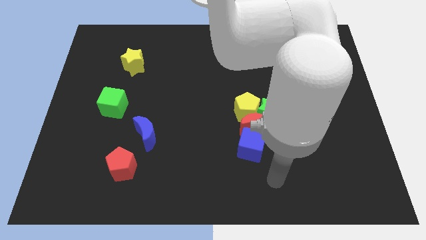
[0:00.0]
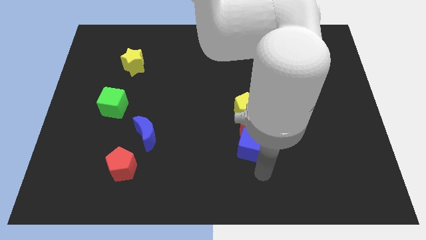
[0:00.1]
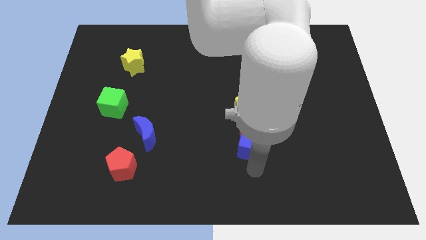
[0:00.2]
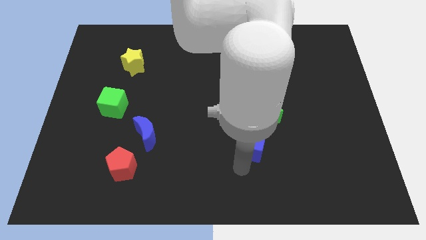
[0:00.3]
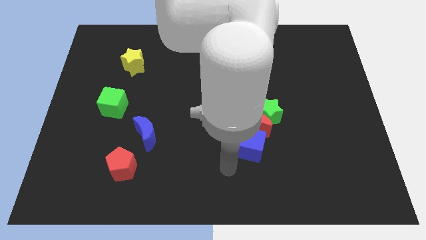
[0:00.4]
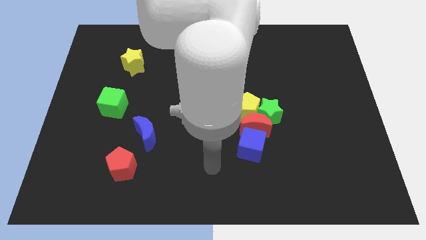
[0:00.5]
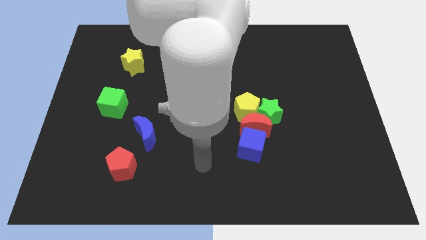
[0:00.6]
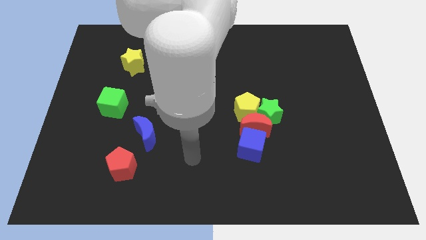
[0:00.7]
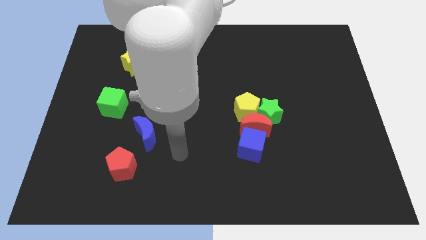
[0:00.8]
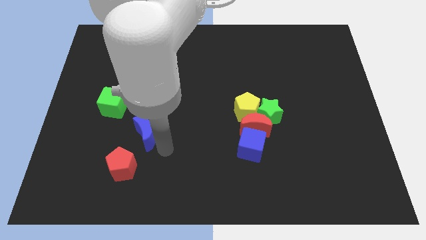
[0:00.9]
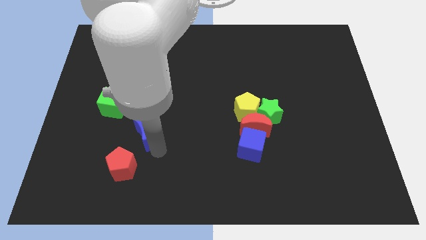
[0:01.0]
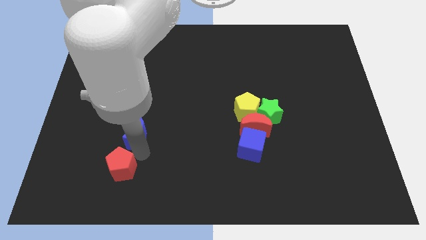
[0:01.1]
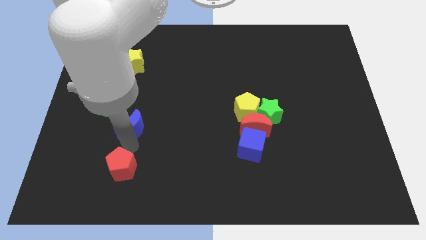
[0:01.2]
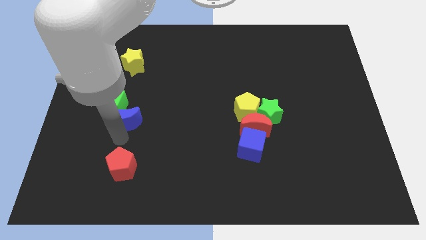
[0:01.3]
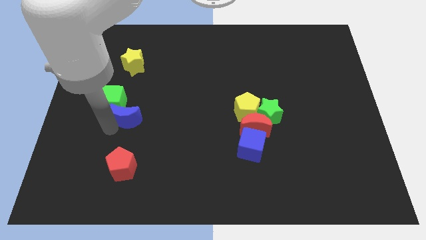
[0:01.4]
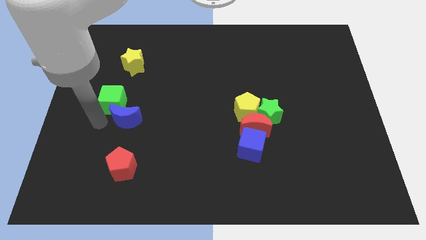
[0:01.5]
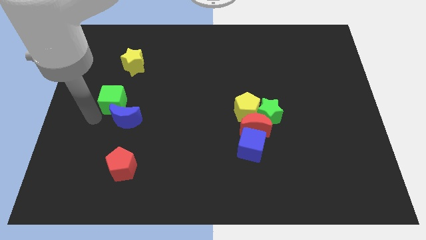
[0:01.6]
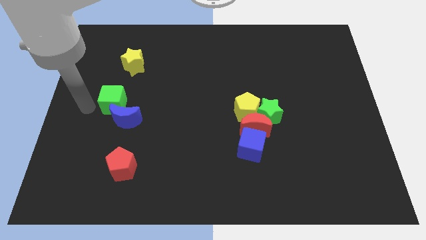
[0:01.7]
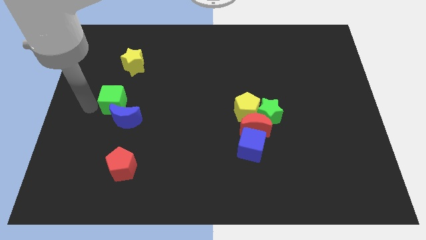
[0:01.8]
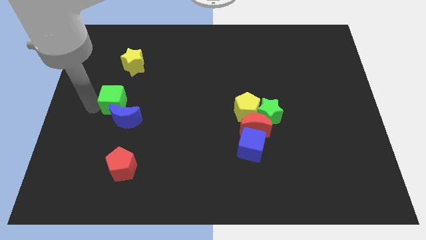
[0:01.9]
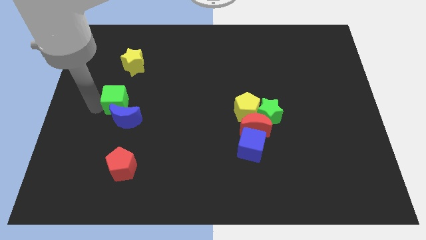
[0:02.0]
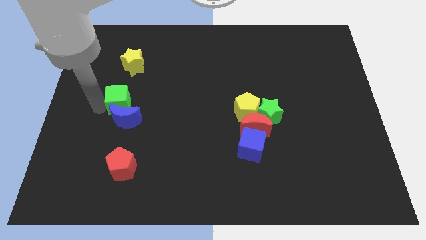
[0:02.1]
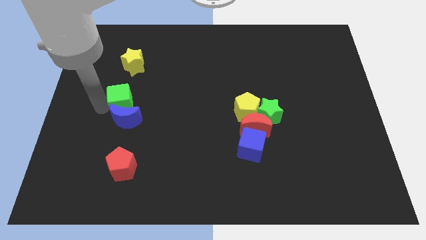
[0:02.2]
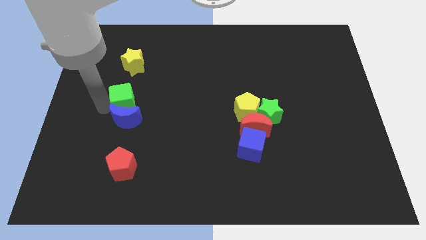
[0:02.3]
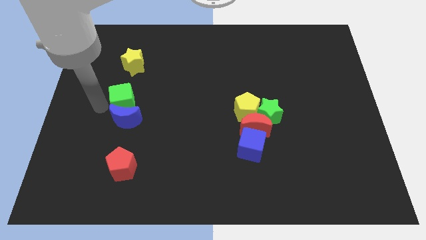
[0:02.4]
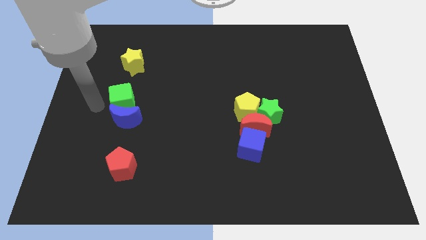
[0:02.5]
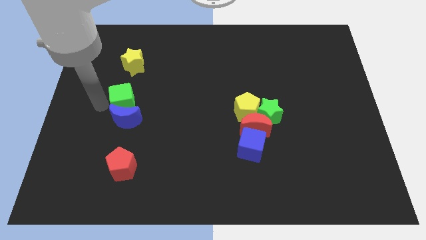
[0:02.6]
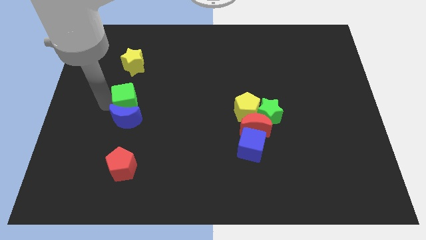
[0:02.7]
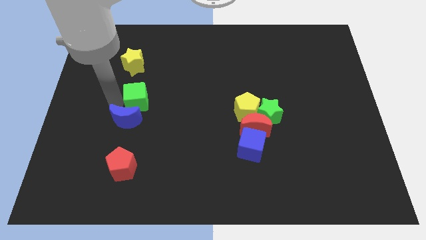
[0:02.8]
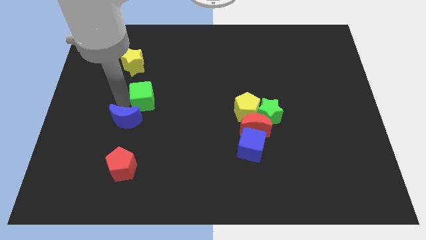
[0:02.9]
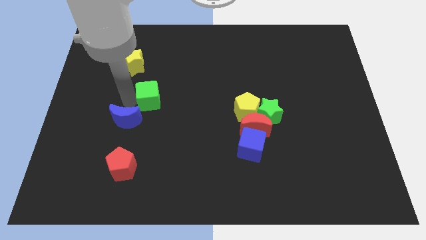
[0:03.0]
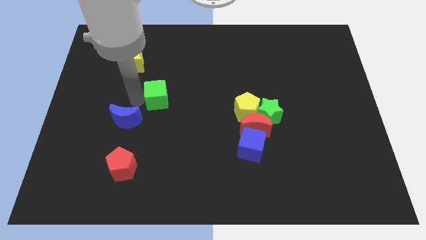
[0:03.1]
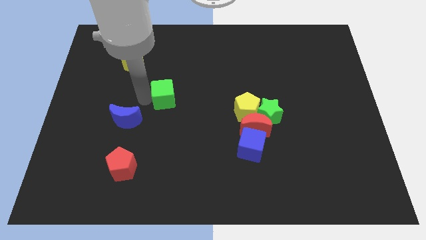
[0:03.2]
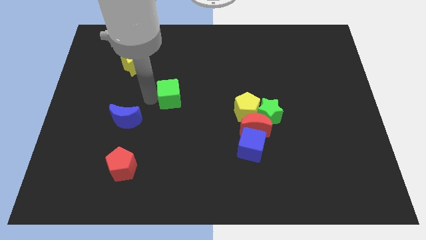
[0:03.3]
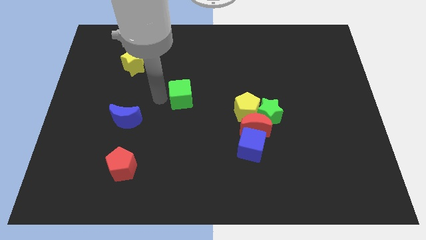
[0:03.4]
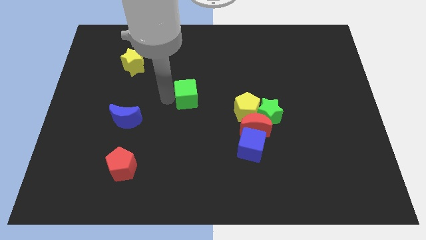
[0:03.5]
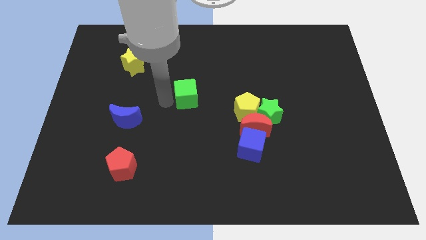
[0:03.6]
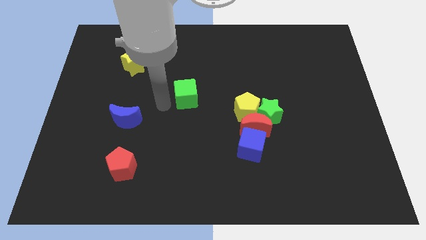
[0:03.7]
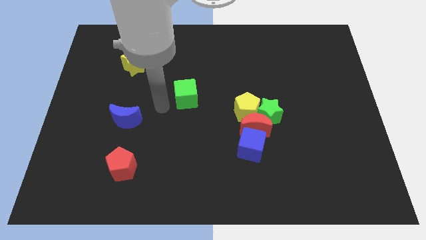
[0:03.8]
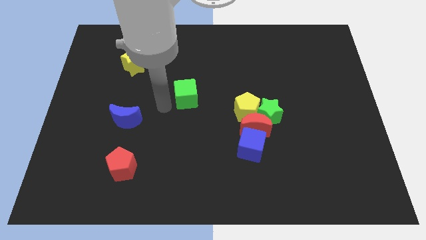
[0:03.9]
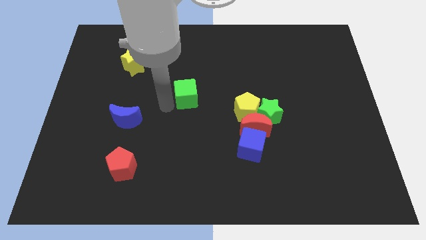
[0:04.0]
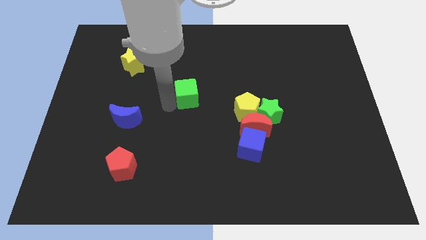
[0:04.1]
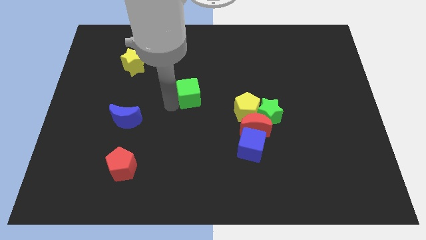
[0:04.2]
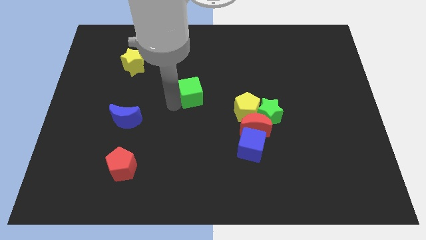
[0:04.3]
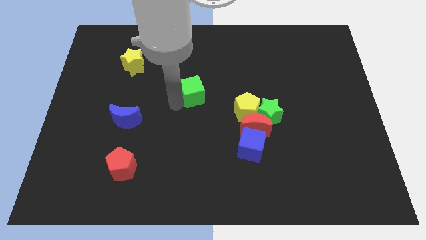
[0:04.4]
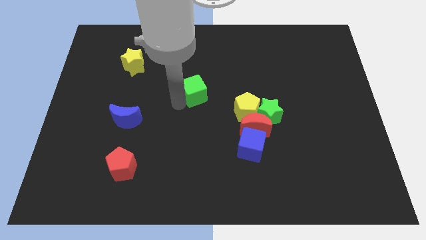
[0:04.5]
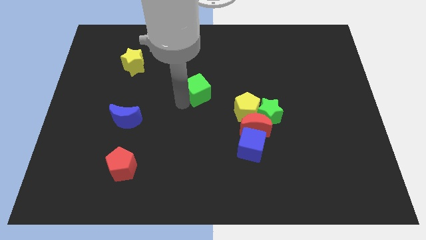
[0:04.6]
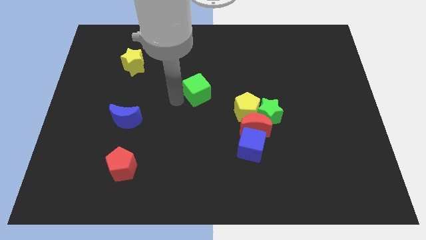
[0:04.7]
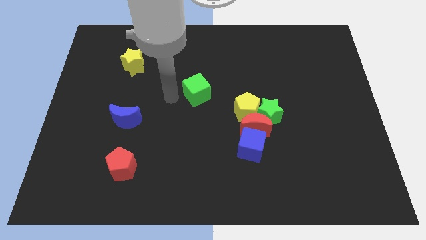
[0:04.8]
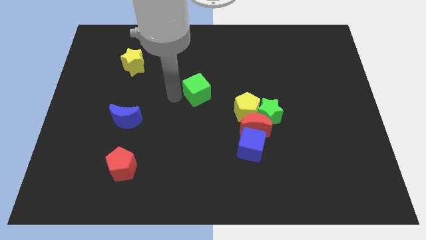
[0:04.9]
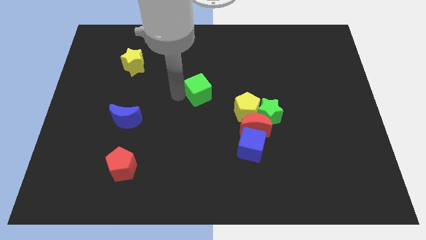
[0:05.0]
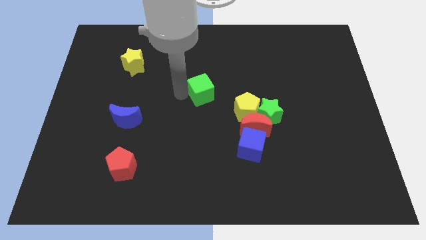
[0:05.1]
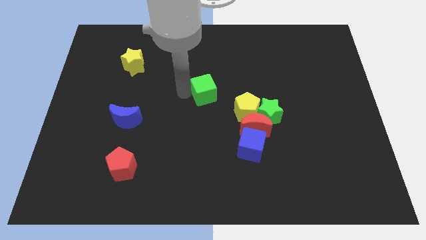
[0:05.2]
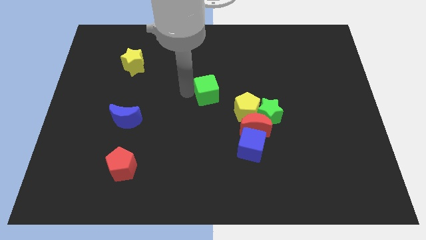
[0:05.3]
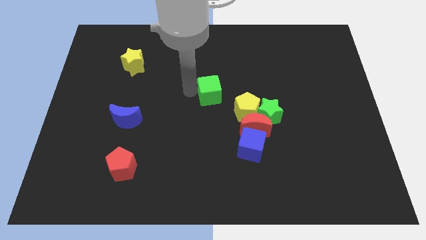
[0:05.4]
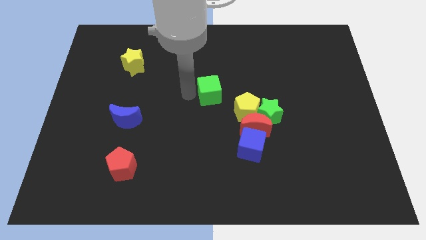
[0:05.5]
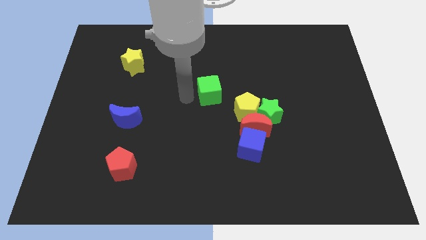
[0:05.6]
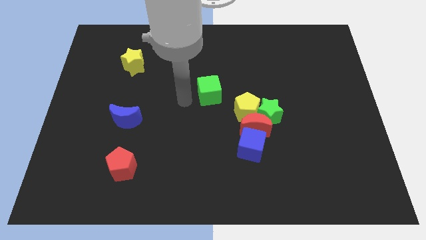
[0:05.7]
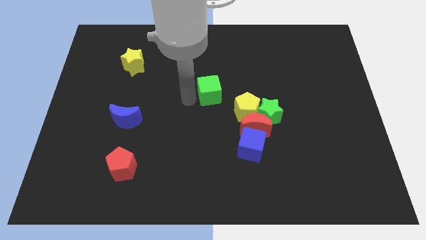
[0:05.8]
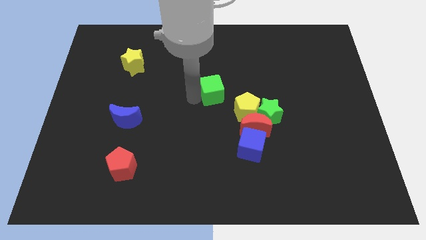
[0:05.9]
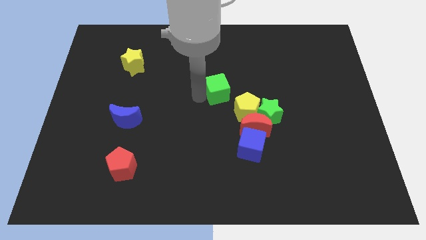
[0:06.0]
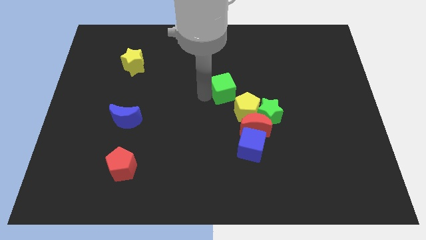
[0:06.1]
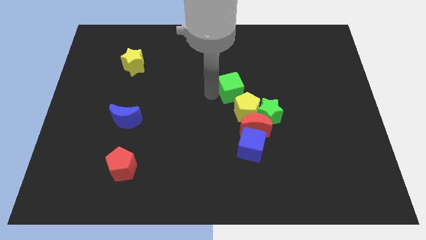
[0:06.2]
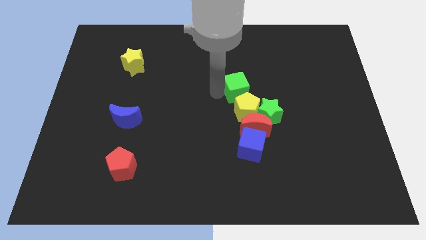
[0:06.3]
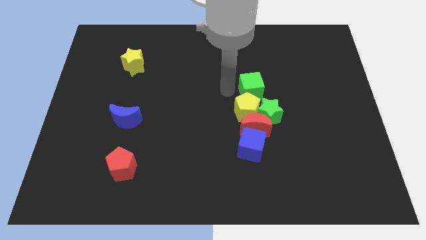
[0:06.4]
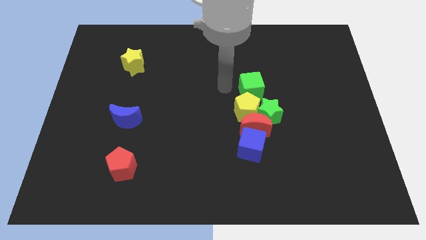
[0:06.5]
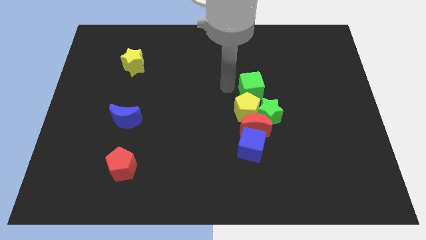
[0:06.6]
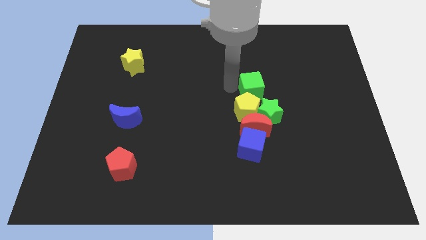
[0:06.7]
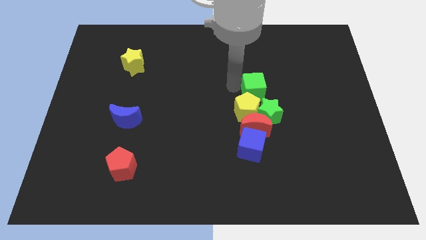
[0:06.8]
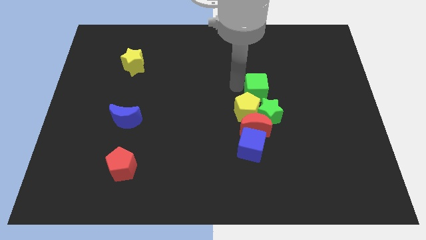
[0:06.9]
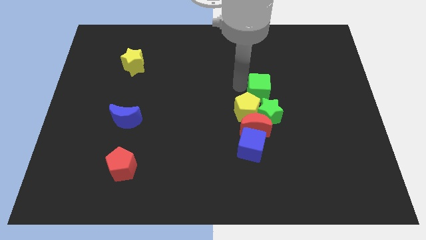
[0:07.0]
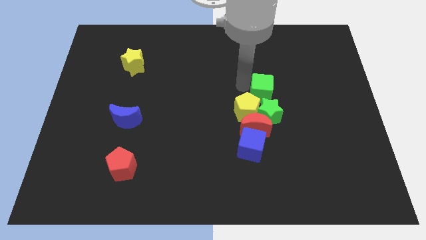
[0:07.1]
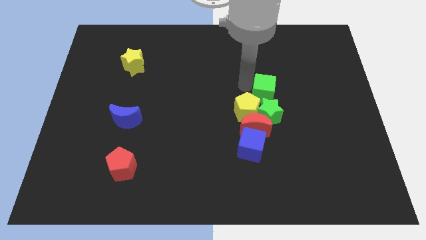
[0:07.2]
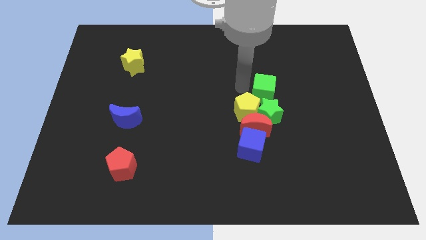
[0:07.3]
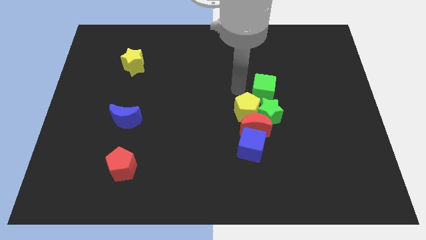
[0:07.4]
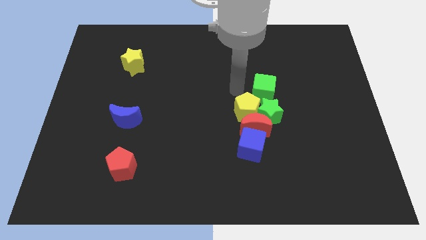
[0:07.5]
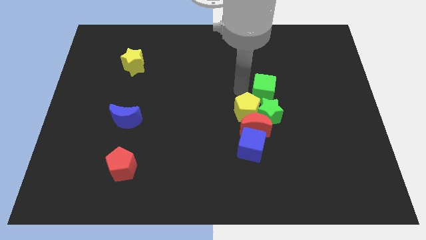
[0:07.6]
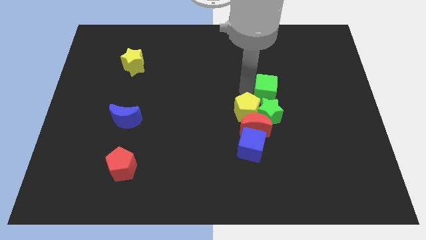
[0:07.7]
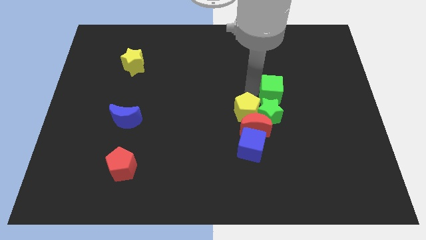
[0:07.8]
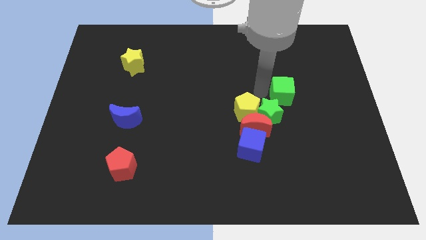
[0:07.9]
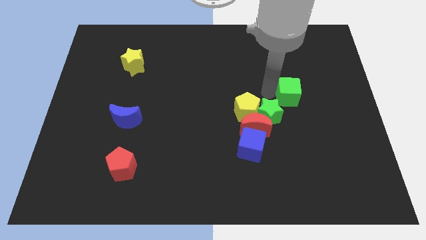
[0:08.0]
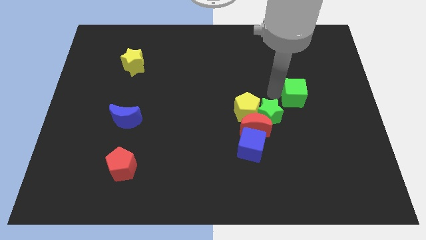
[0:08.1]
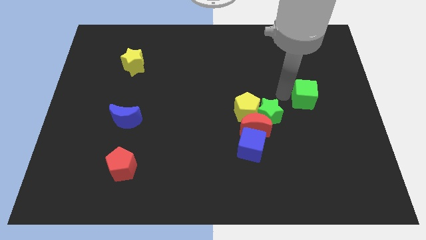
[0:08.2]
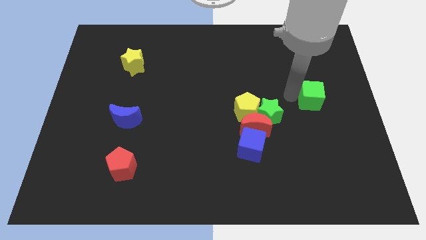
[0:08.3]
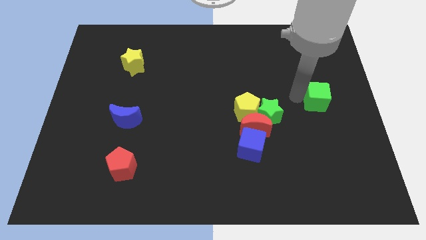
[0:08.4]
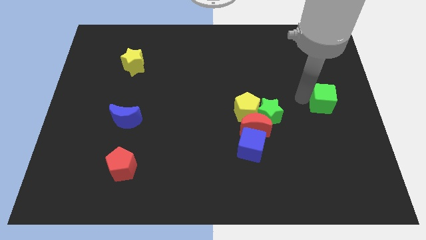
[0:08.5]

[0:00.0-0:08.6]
push the green cube to the right side
